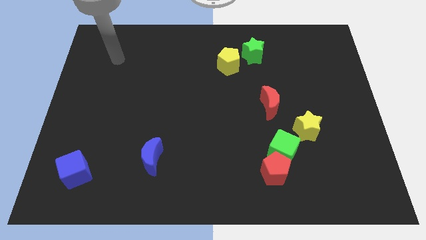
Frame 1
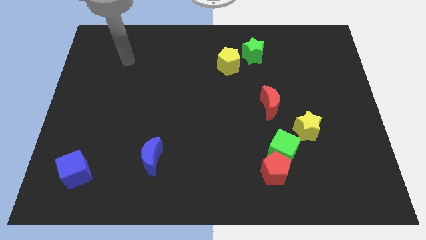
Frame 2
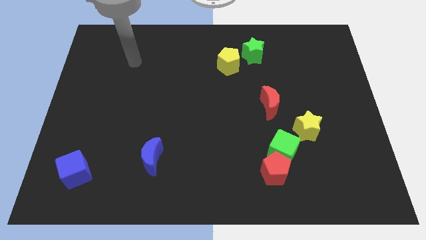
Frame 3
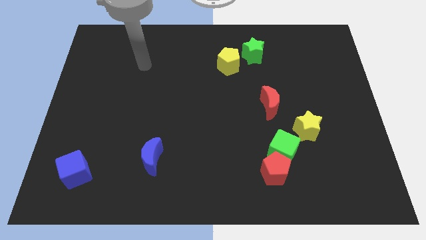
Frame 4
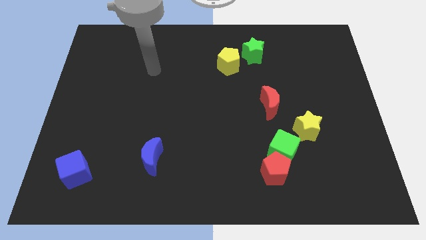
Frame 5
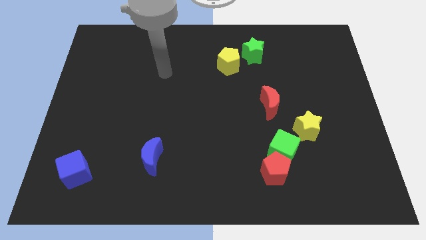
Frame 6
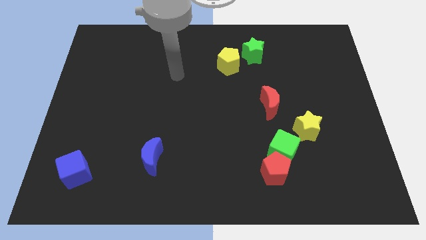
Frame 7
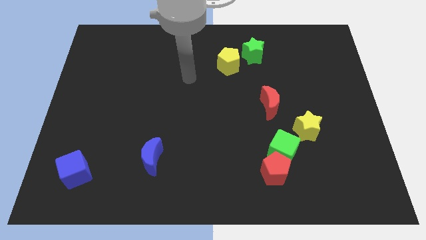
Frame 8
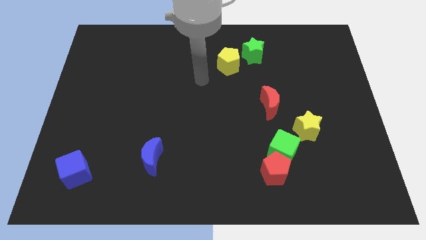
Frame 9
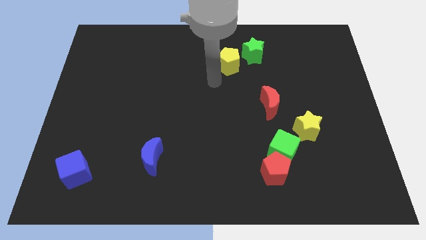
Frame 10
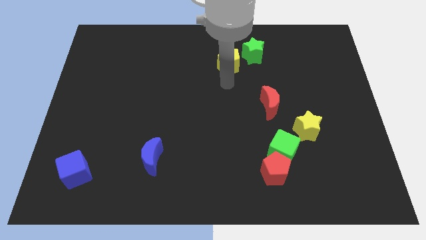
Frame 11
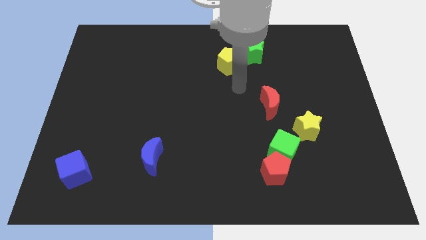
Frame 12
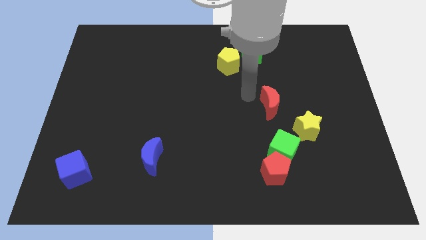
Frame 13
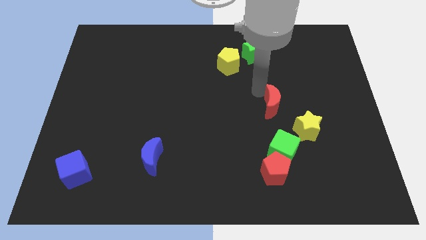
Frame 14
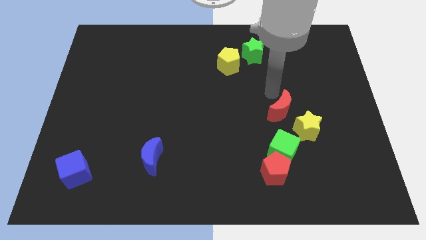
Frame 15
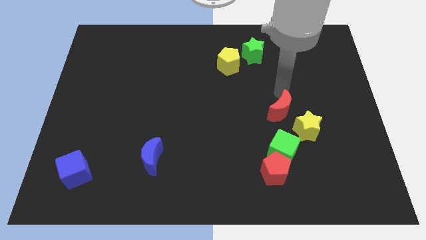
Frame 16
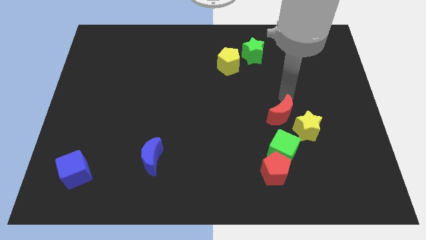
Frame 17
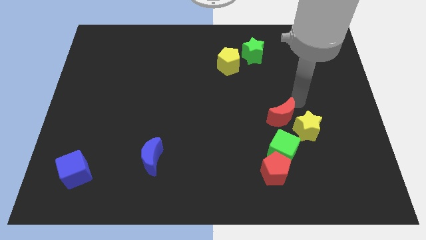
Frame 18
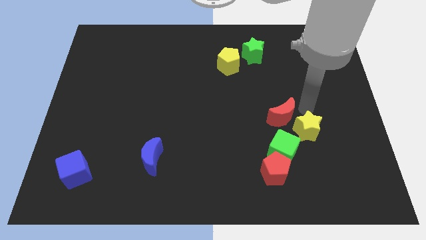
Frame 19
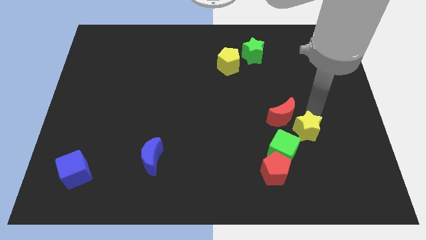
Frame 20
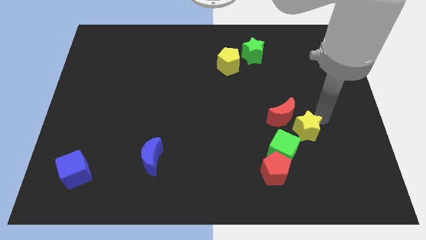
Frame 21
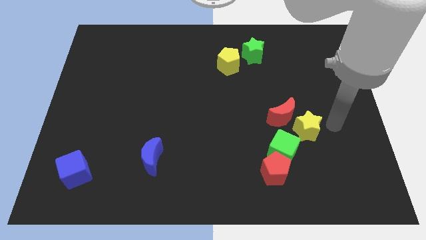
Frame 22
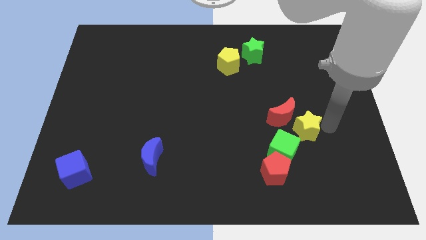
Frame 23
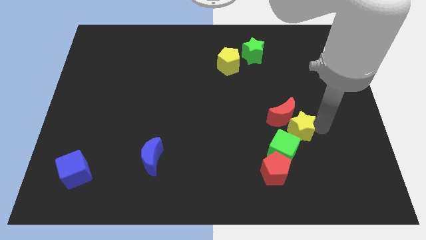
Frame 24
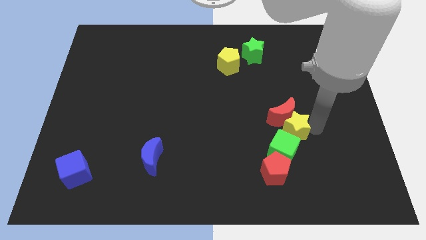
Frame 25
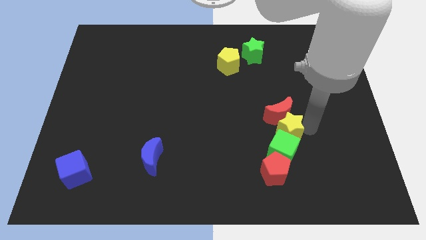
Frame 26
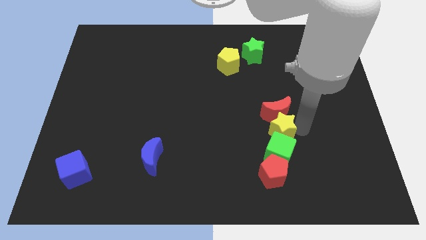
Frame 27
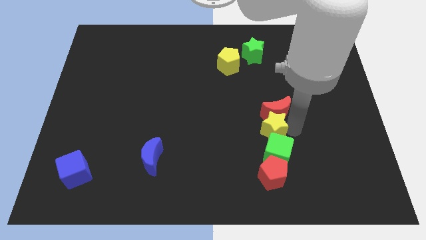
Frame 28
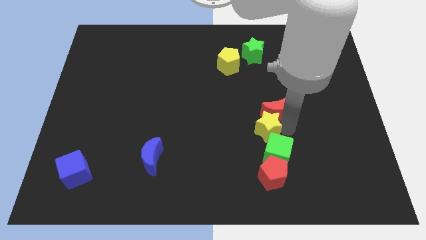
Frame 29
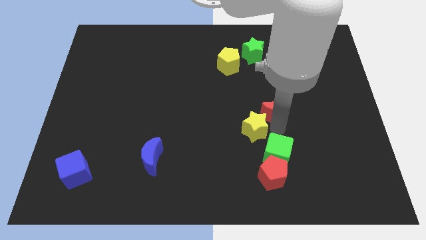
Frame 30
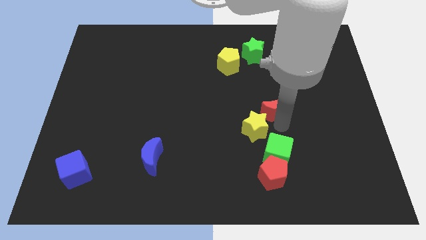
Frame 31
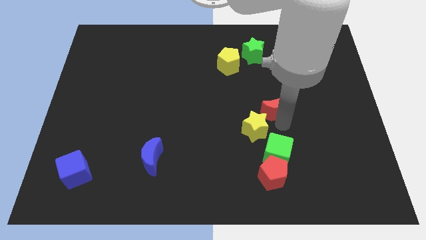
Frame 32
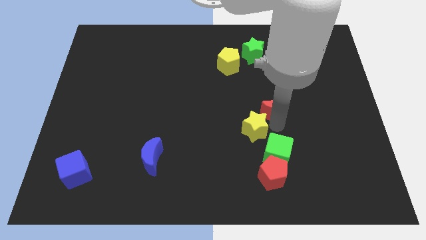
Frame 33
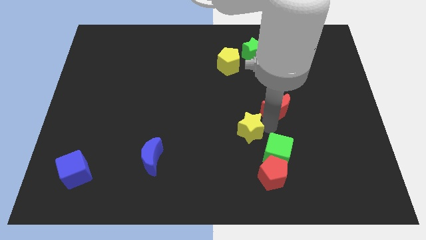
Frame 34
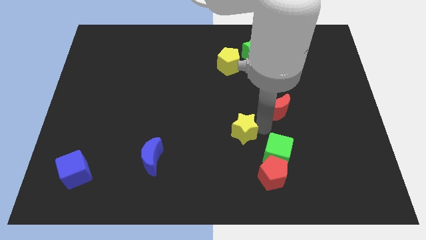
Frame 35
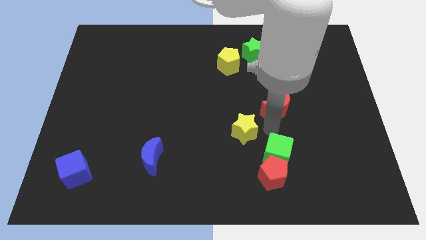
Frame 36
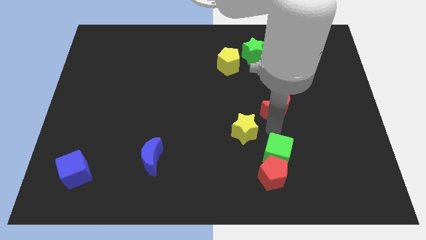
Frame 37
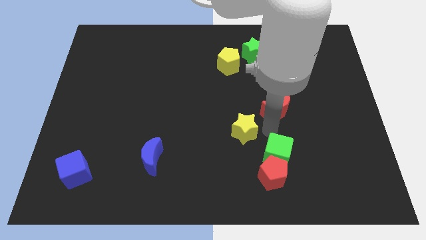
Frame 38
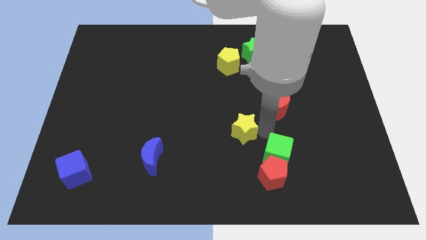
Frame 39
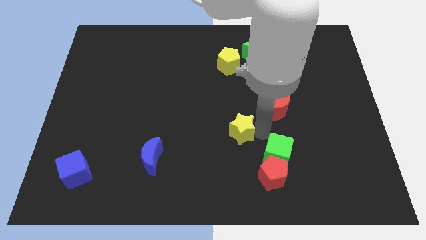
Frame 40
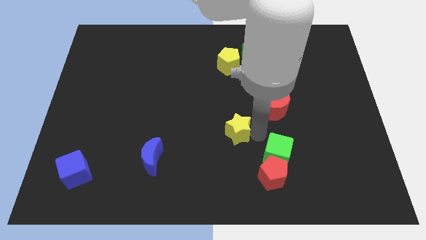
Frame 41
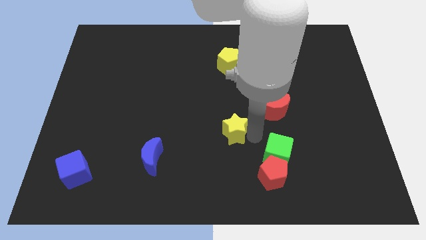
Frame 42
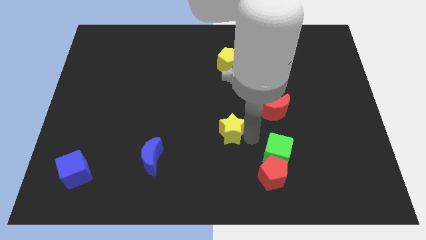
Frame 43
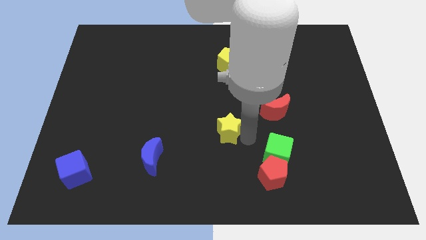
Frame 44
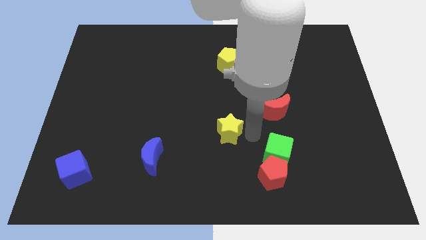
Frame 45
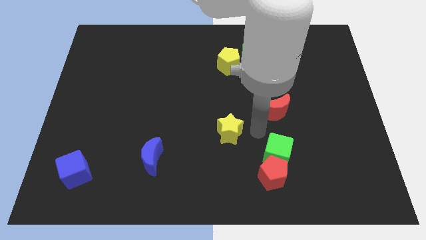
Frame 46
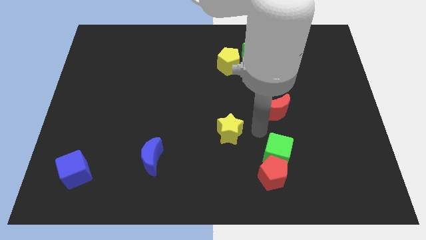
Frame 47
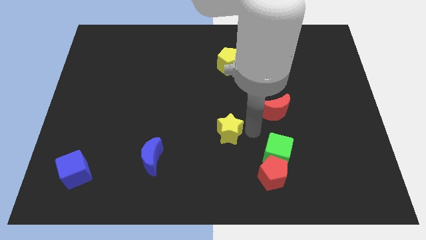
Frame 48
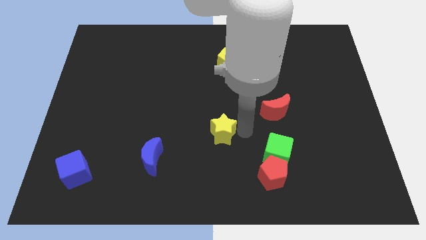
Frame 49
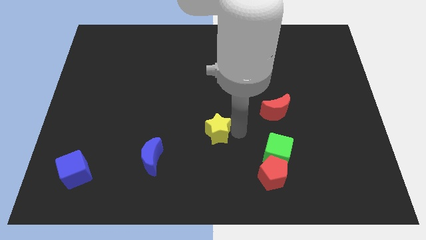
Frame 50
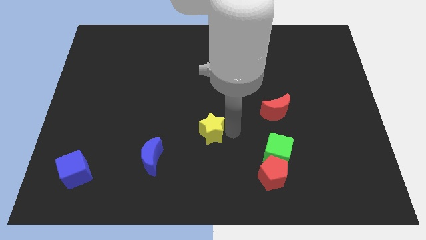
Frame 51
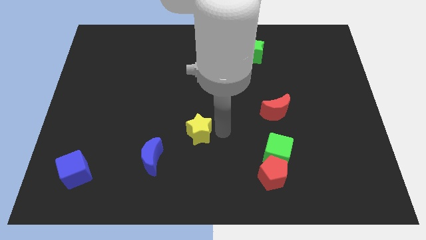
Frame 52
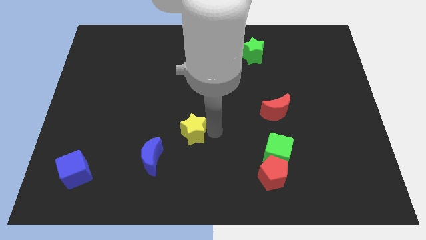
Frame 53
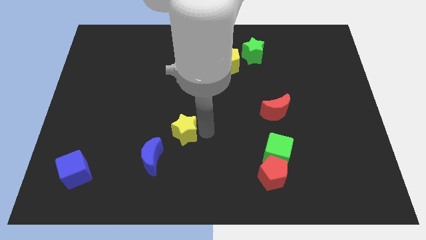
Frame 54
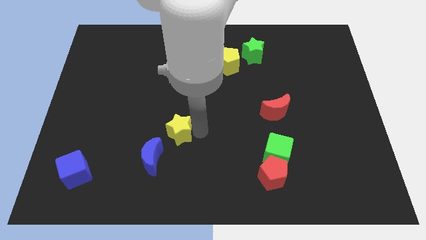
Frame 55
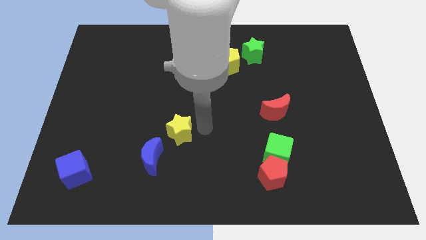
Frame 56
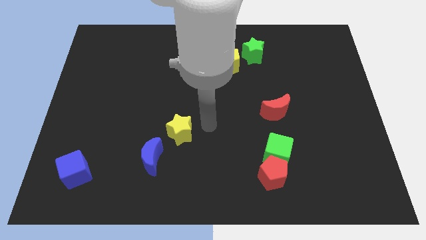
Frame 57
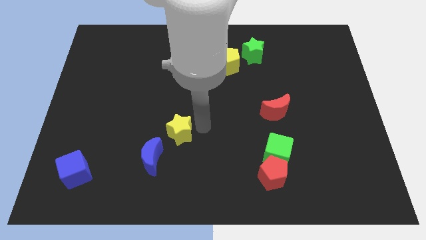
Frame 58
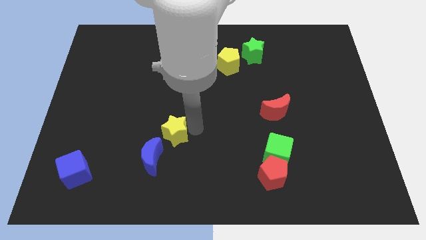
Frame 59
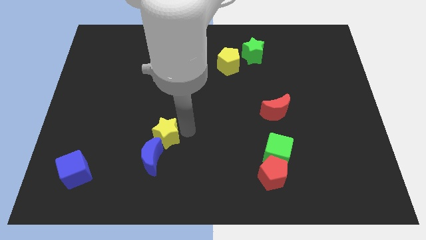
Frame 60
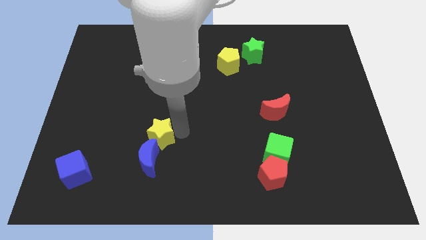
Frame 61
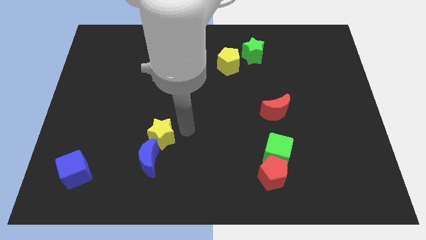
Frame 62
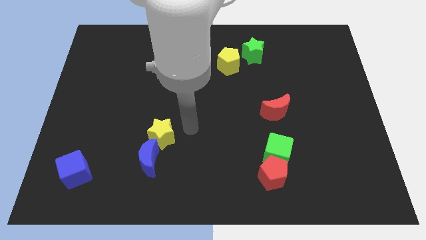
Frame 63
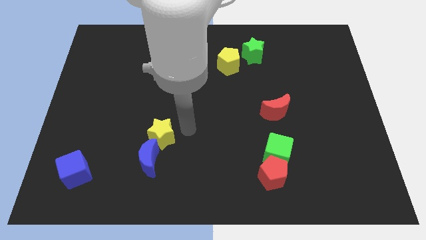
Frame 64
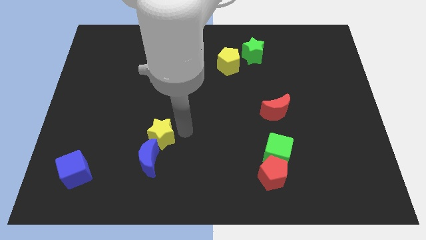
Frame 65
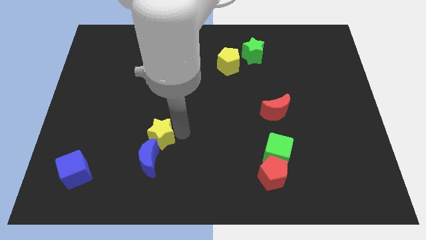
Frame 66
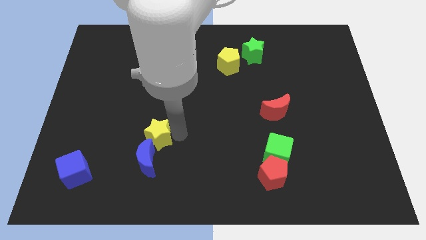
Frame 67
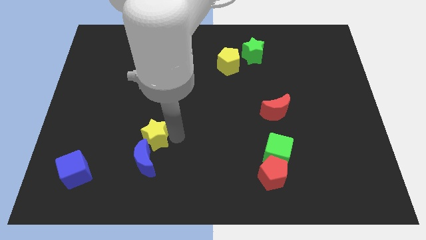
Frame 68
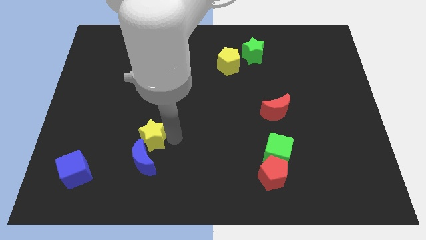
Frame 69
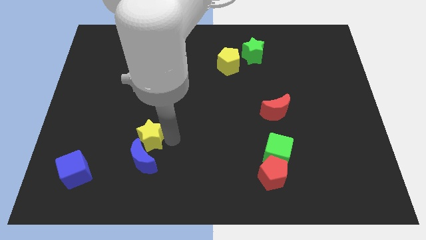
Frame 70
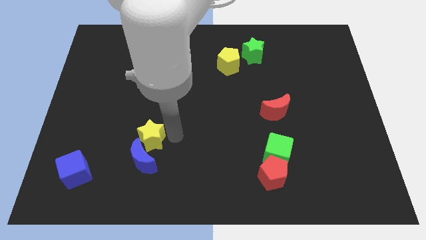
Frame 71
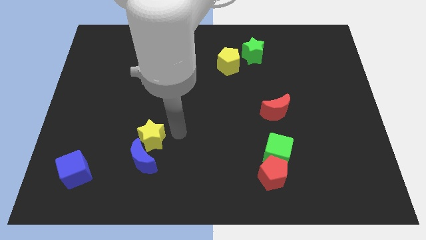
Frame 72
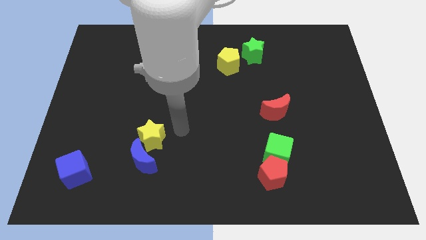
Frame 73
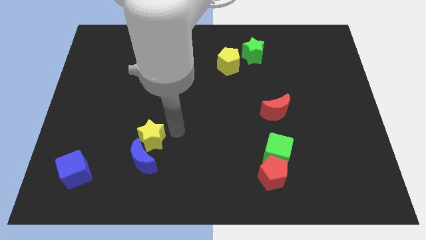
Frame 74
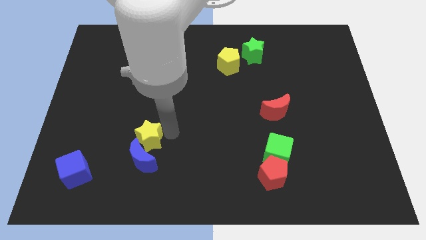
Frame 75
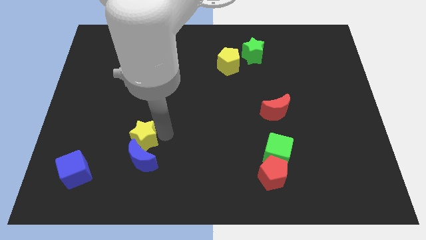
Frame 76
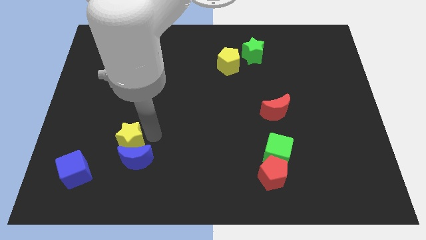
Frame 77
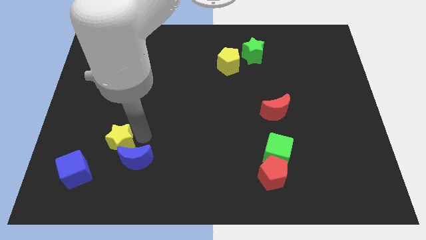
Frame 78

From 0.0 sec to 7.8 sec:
slide the yellow star to the left side of the blue moon
